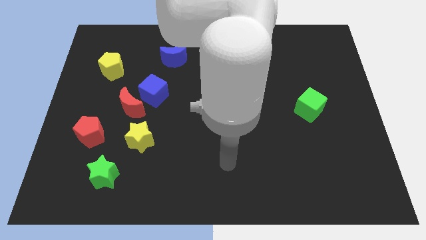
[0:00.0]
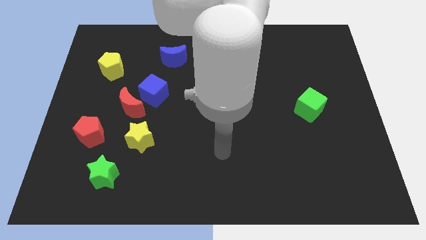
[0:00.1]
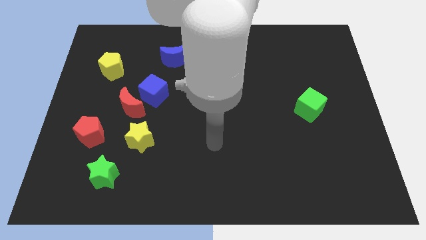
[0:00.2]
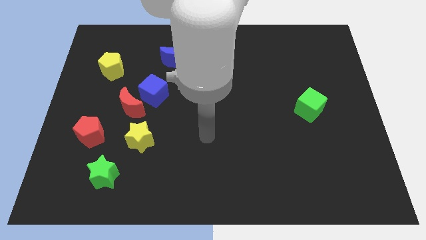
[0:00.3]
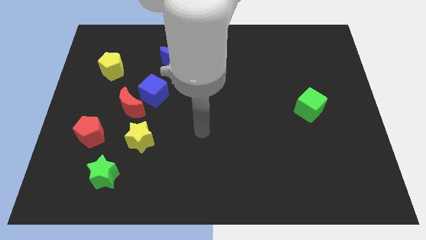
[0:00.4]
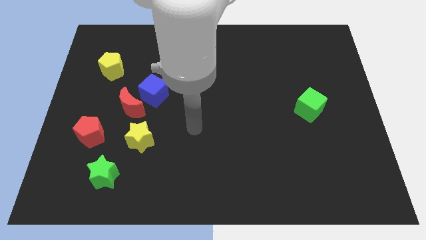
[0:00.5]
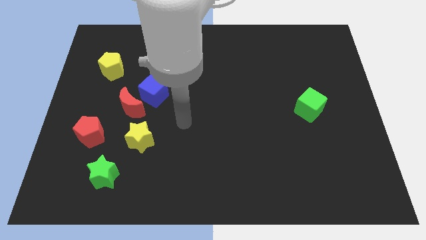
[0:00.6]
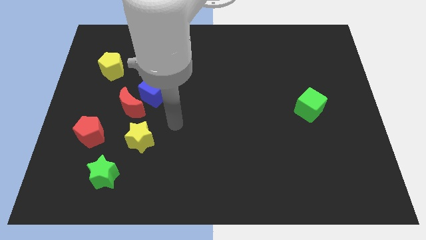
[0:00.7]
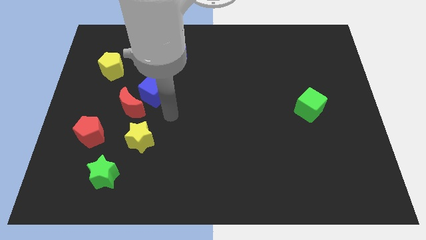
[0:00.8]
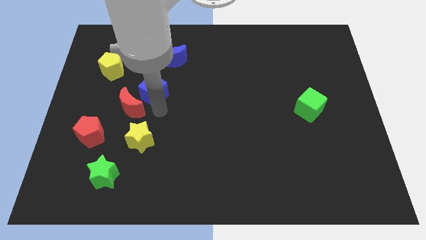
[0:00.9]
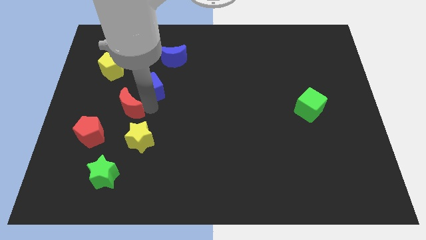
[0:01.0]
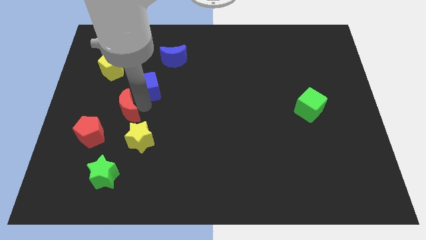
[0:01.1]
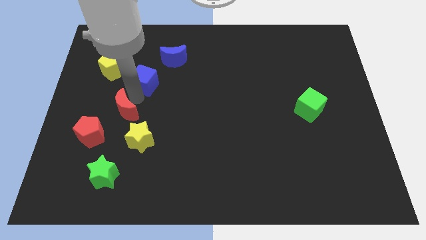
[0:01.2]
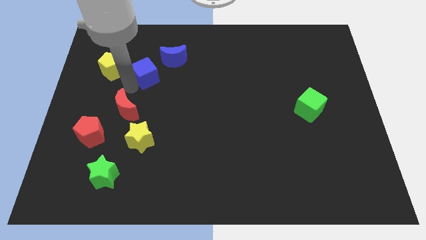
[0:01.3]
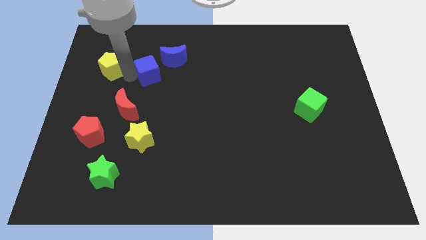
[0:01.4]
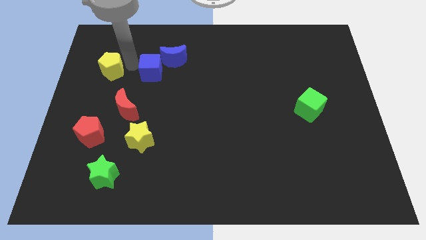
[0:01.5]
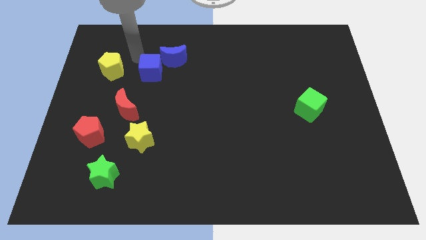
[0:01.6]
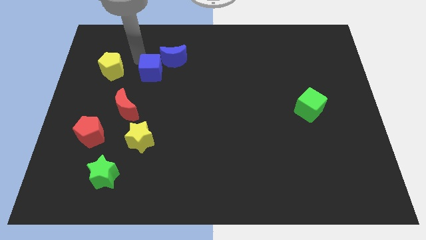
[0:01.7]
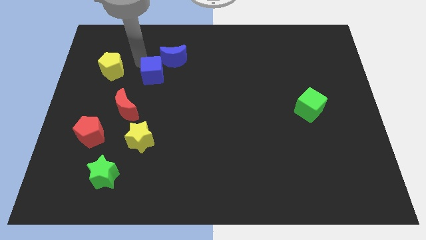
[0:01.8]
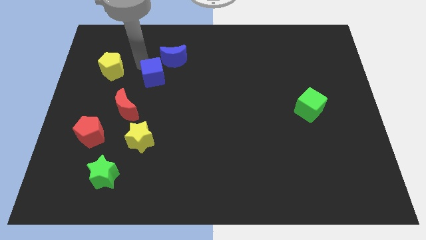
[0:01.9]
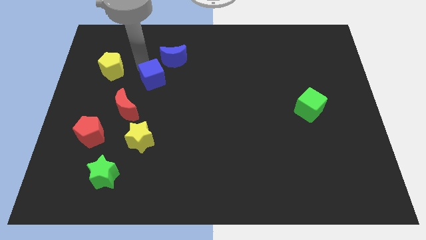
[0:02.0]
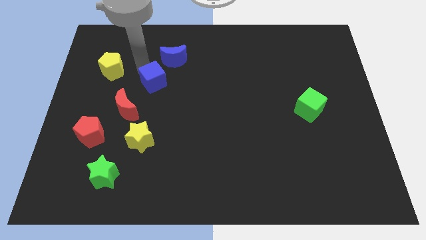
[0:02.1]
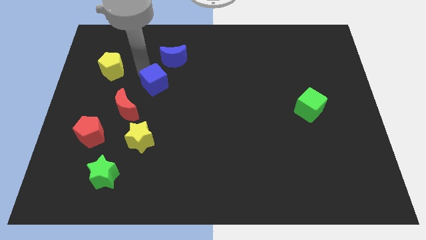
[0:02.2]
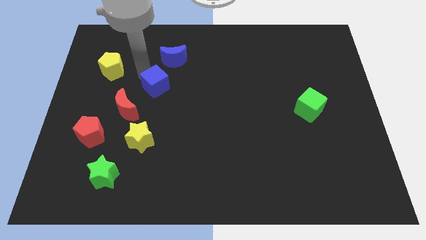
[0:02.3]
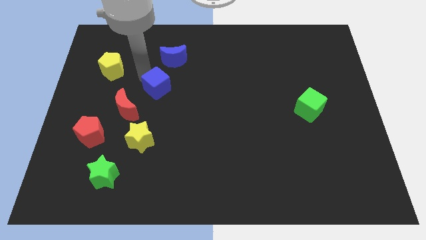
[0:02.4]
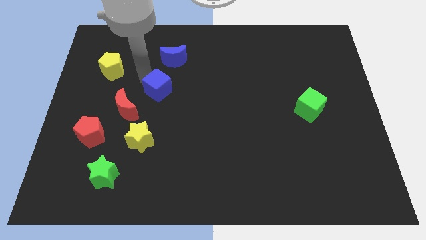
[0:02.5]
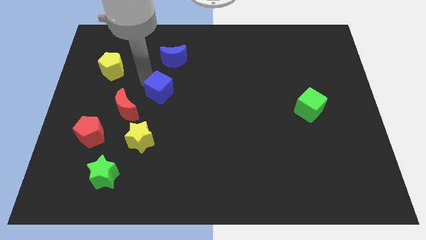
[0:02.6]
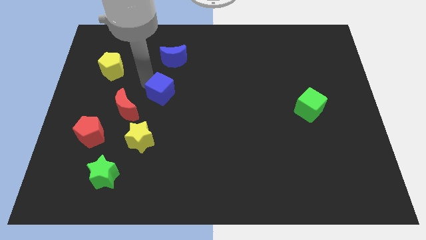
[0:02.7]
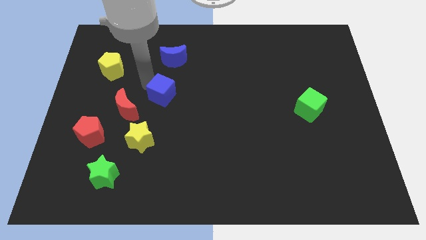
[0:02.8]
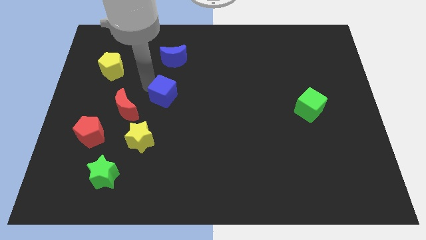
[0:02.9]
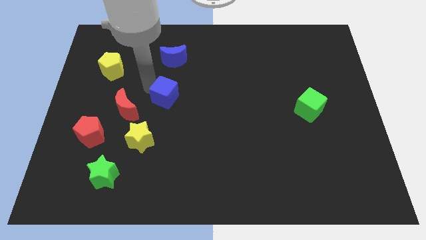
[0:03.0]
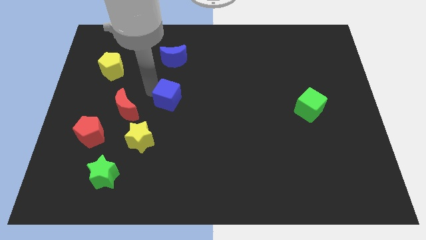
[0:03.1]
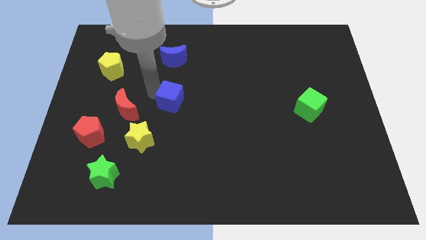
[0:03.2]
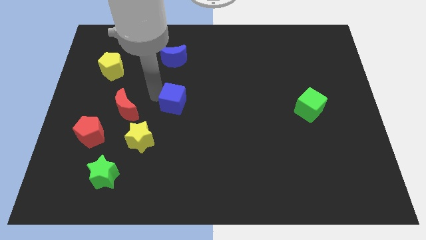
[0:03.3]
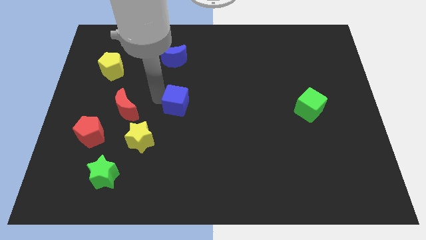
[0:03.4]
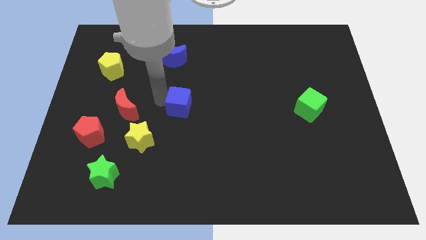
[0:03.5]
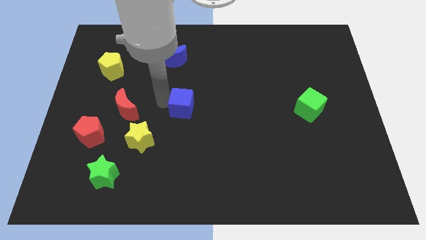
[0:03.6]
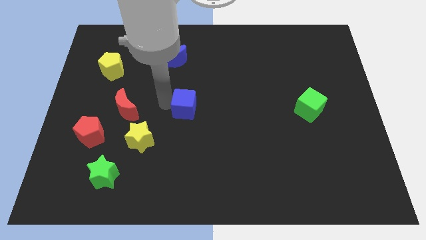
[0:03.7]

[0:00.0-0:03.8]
slide the blue cube right somewhat

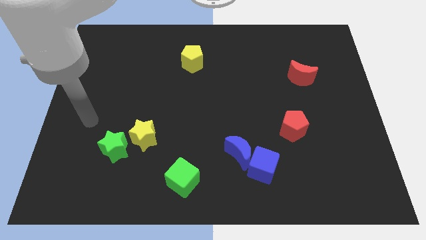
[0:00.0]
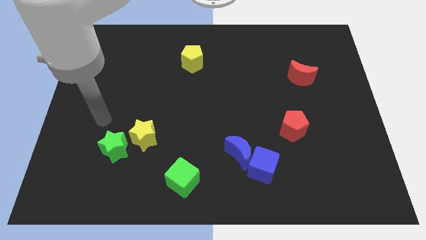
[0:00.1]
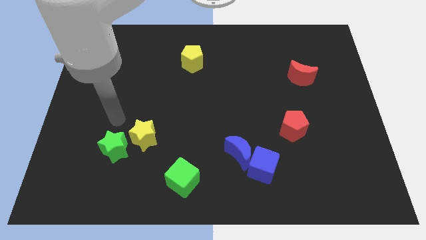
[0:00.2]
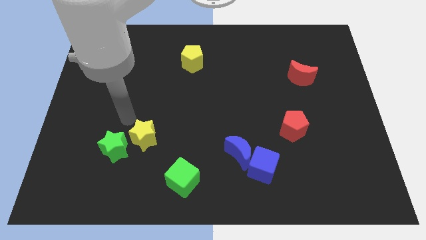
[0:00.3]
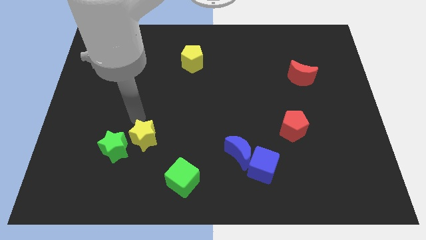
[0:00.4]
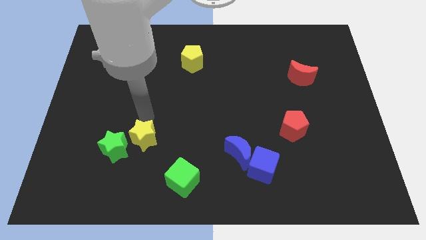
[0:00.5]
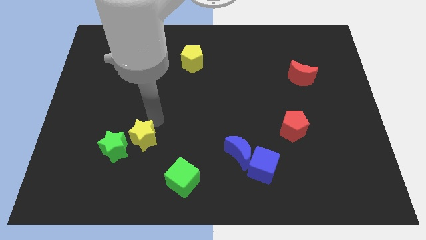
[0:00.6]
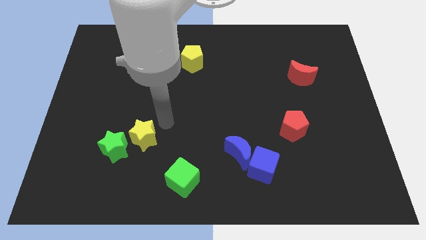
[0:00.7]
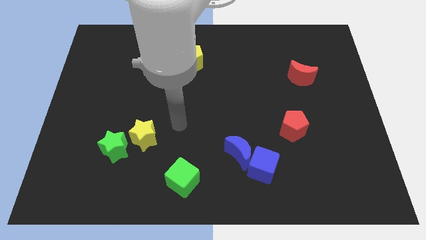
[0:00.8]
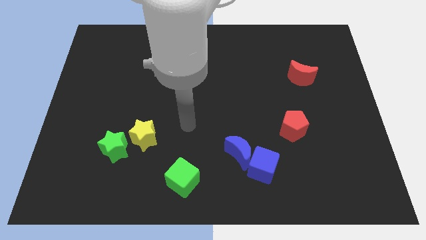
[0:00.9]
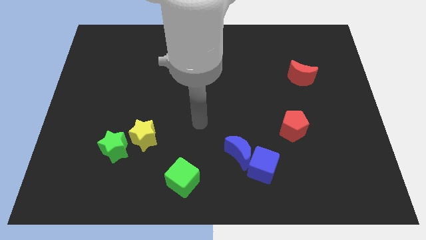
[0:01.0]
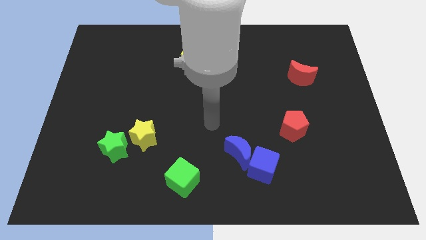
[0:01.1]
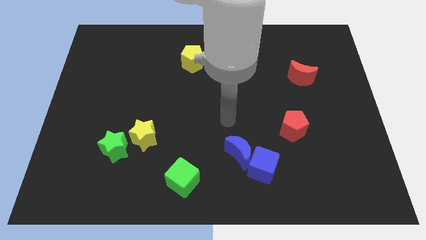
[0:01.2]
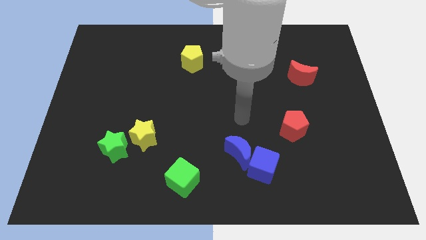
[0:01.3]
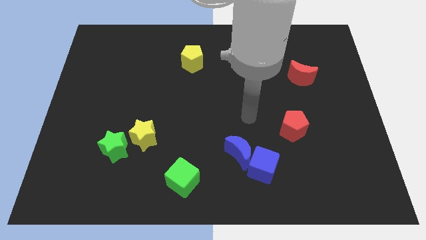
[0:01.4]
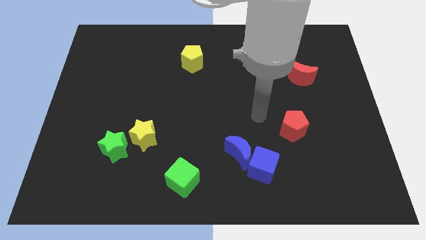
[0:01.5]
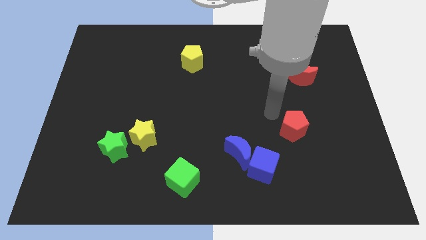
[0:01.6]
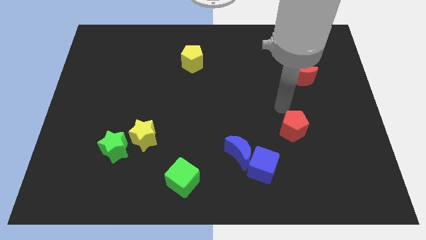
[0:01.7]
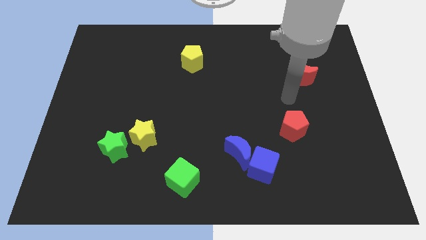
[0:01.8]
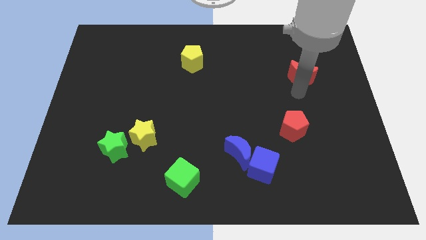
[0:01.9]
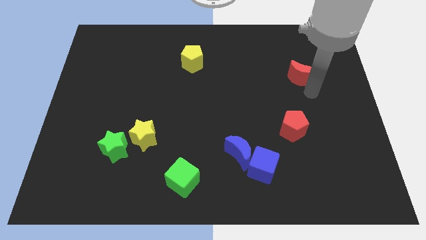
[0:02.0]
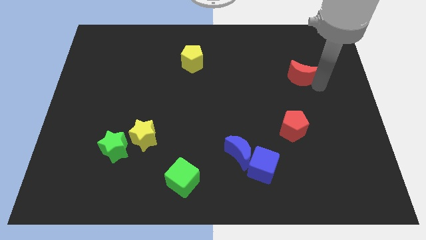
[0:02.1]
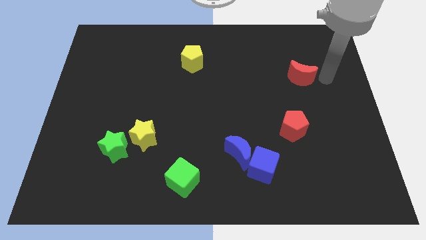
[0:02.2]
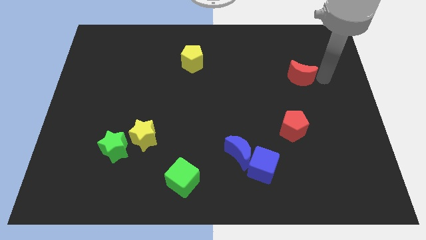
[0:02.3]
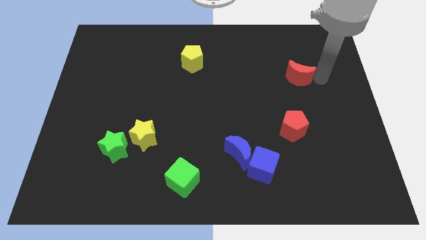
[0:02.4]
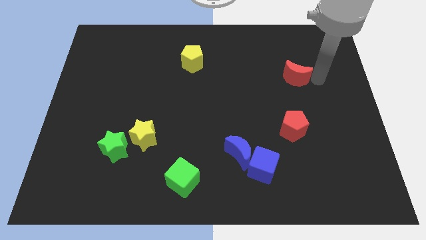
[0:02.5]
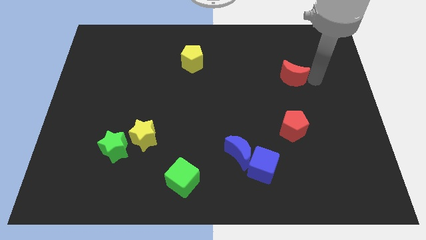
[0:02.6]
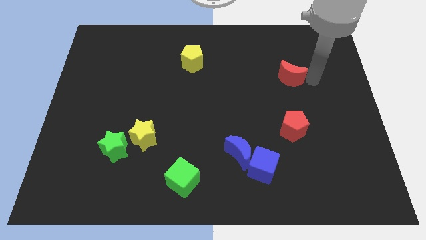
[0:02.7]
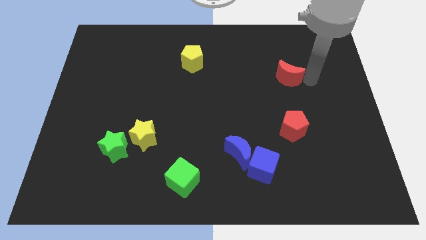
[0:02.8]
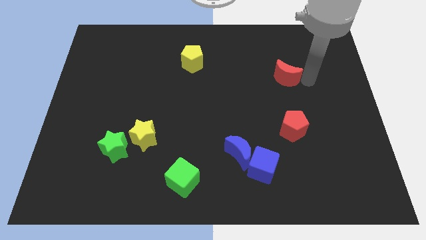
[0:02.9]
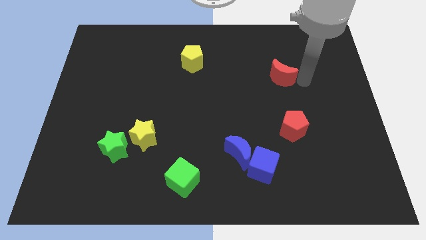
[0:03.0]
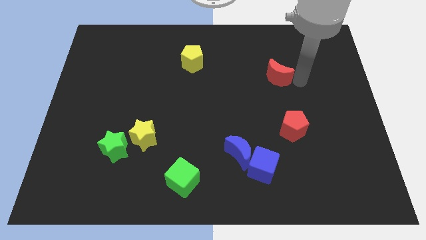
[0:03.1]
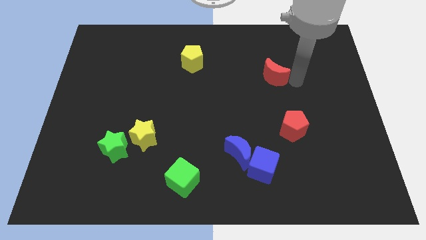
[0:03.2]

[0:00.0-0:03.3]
slightly move the red moon left

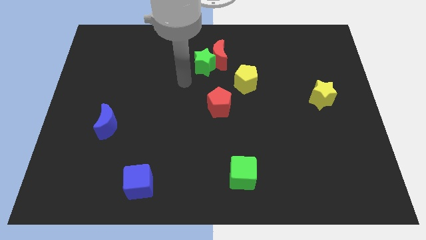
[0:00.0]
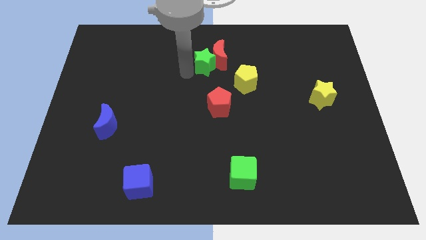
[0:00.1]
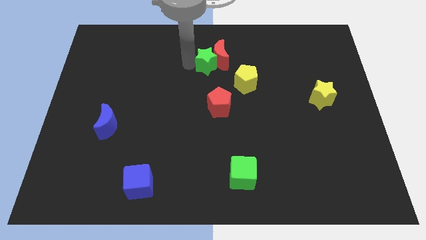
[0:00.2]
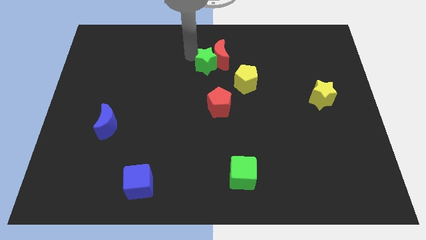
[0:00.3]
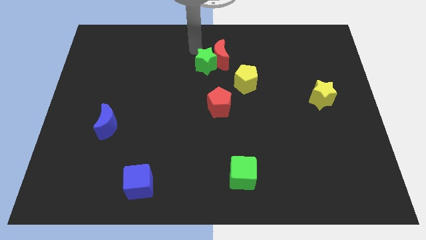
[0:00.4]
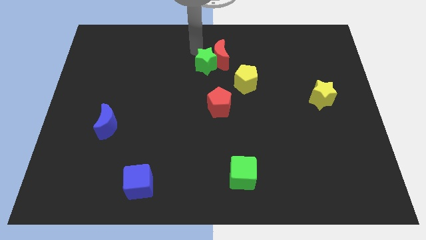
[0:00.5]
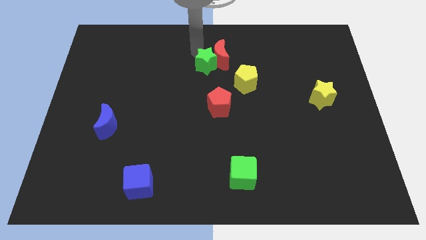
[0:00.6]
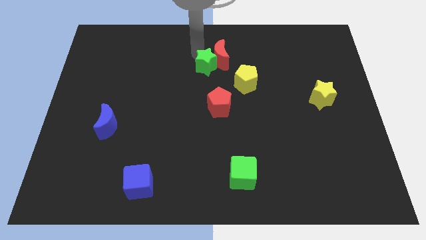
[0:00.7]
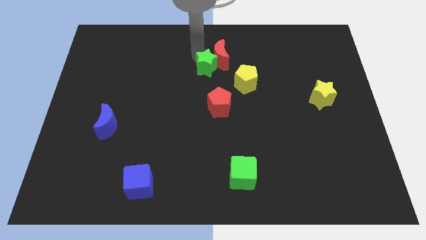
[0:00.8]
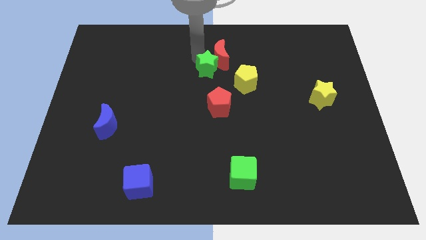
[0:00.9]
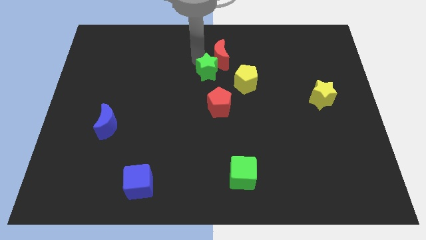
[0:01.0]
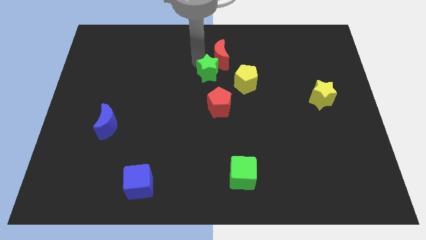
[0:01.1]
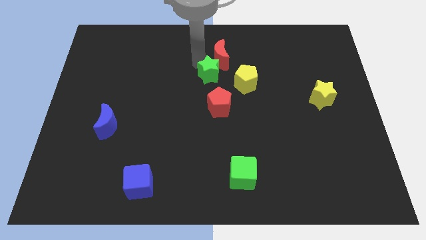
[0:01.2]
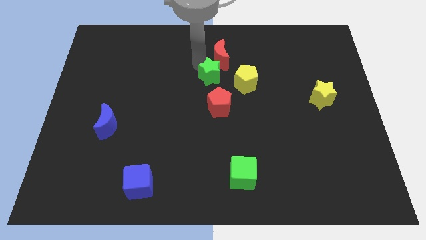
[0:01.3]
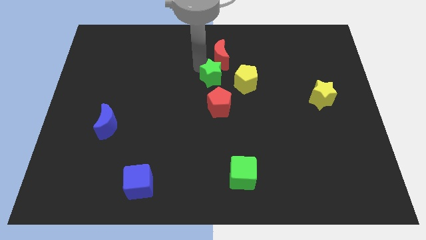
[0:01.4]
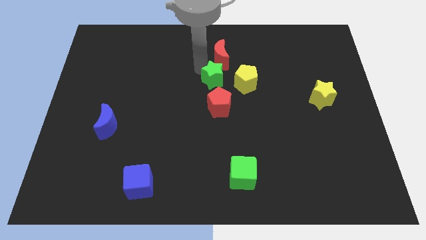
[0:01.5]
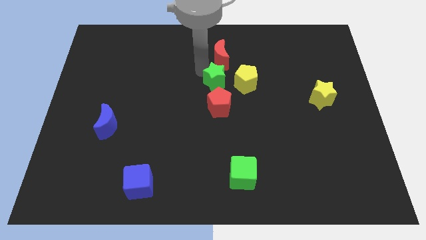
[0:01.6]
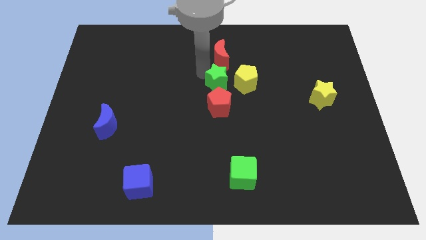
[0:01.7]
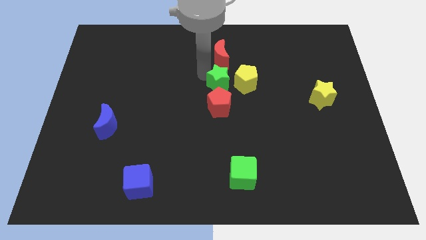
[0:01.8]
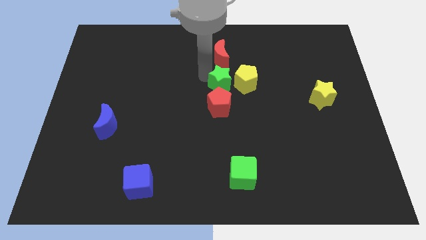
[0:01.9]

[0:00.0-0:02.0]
slide the green star somewhat down and right diagonally
